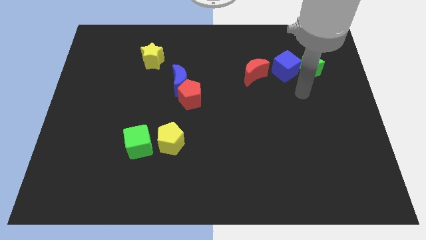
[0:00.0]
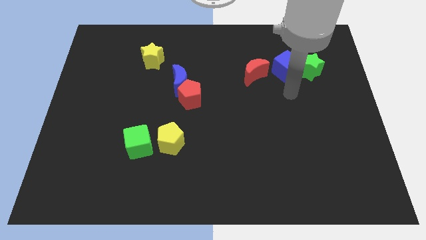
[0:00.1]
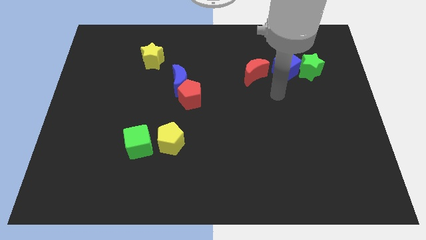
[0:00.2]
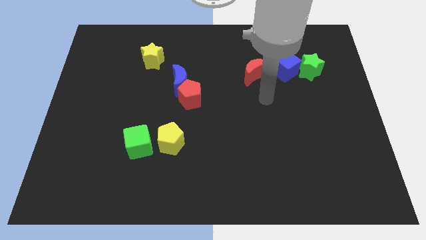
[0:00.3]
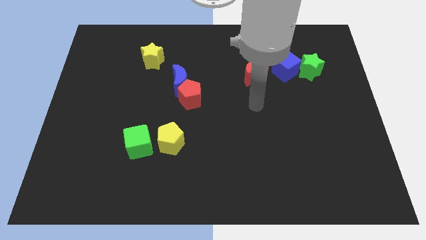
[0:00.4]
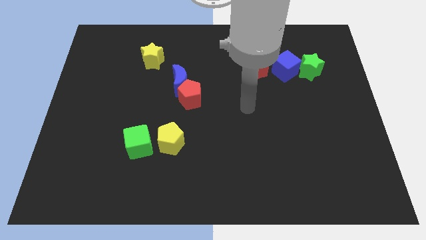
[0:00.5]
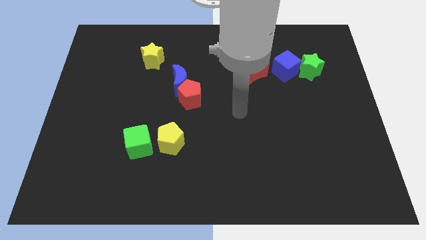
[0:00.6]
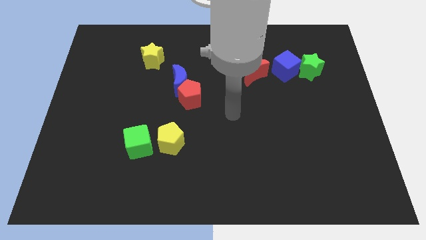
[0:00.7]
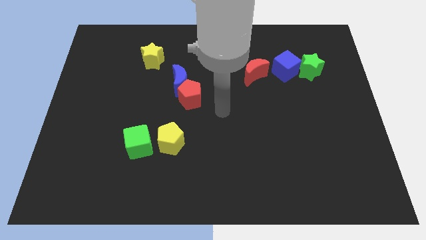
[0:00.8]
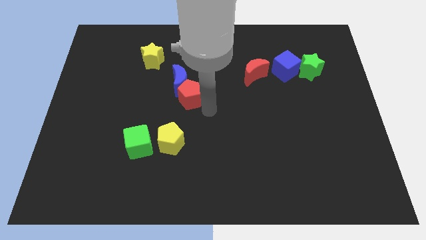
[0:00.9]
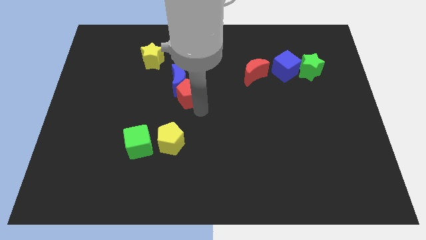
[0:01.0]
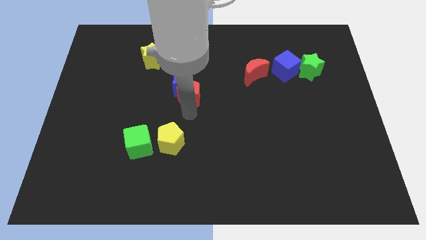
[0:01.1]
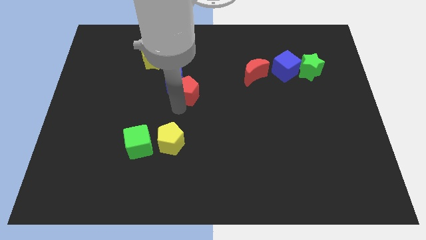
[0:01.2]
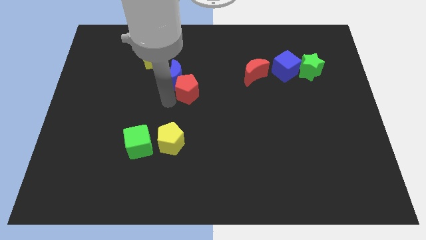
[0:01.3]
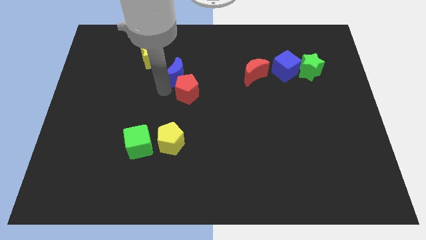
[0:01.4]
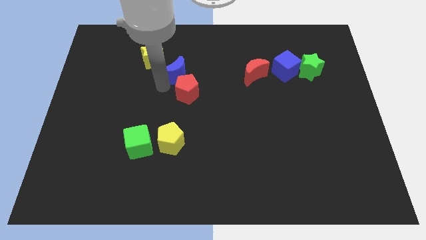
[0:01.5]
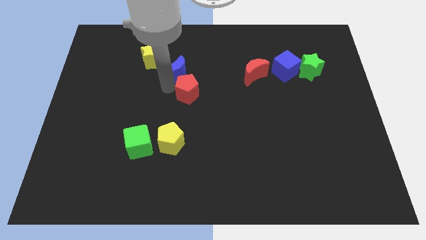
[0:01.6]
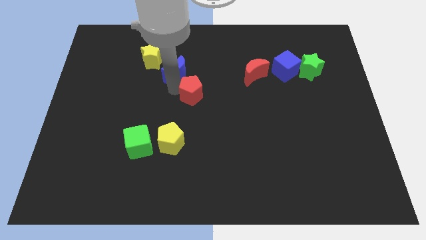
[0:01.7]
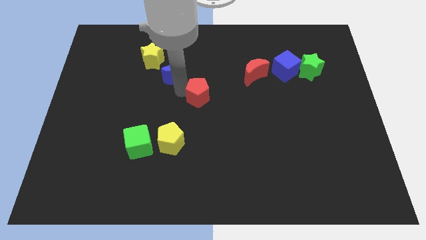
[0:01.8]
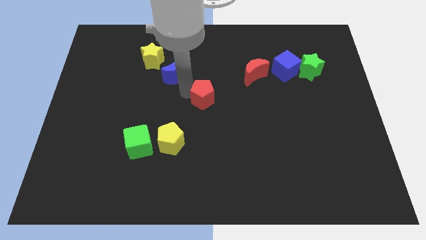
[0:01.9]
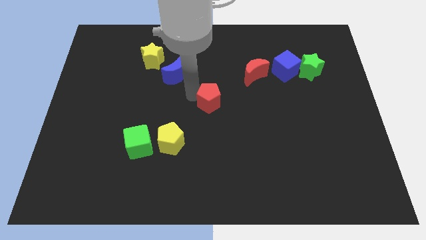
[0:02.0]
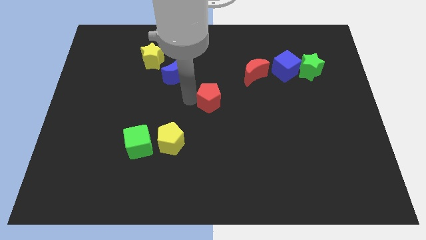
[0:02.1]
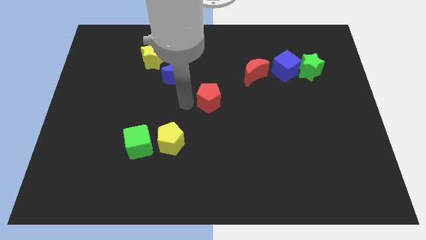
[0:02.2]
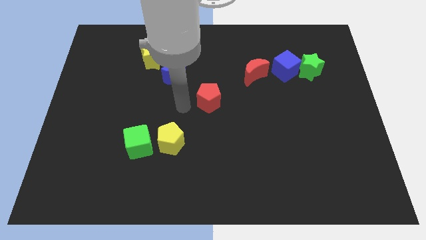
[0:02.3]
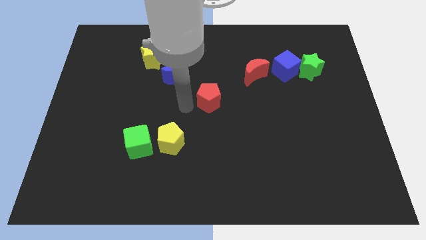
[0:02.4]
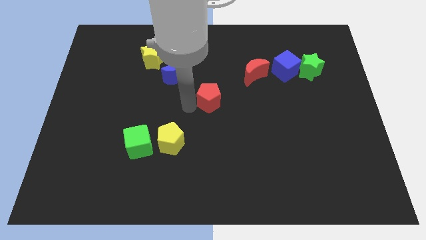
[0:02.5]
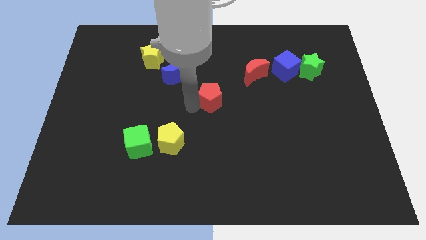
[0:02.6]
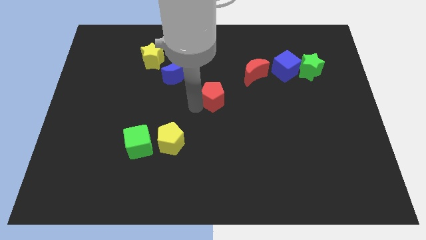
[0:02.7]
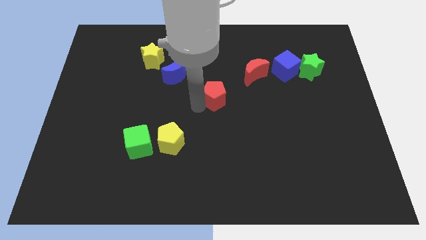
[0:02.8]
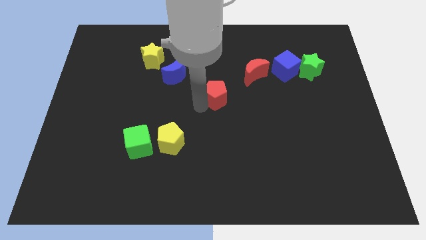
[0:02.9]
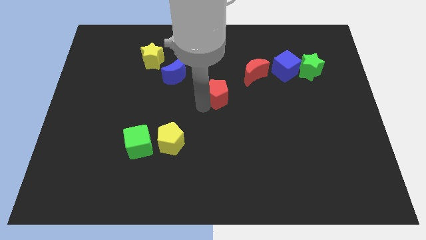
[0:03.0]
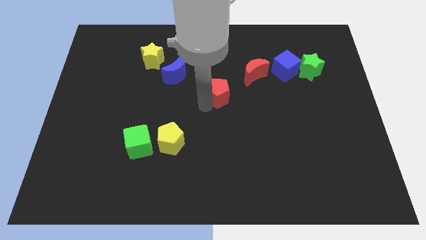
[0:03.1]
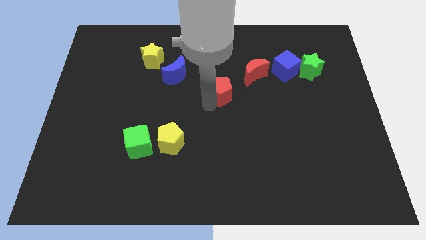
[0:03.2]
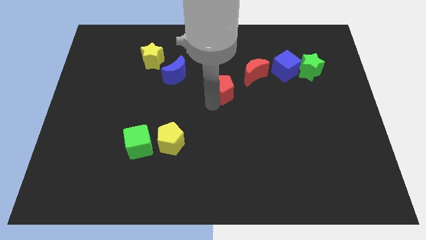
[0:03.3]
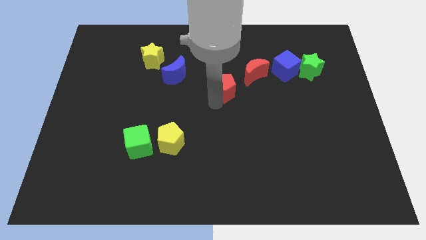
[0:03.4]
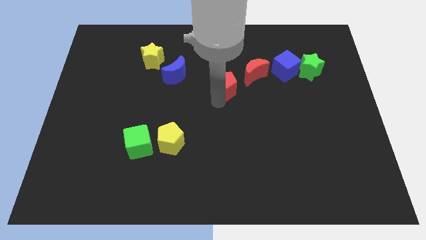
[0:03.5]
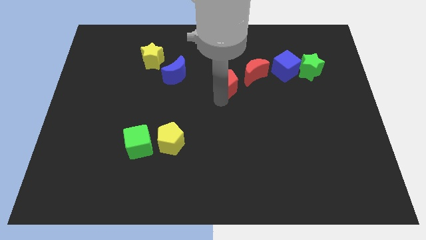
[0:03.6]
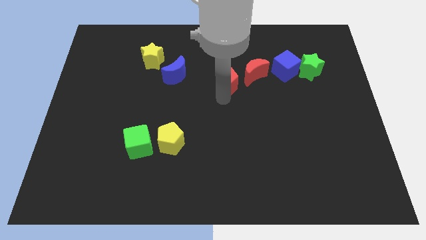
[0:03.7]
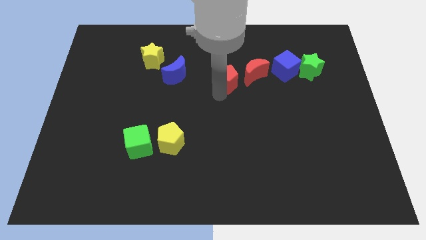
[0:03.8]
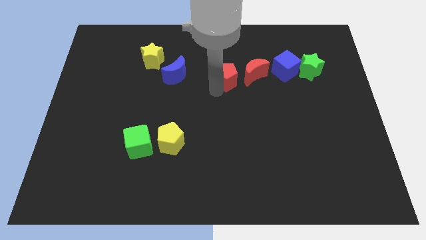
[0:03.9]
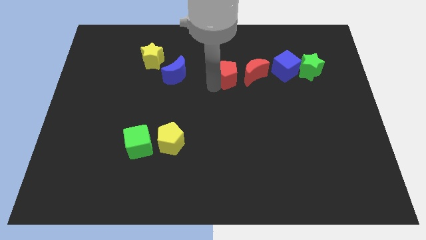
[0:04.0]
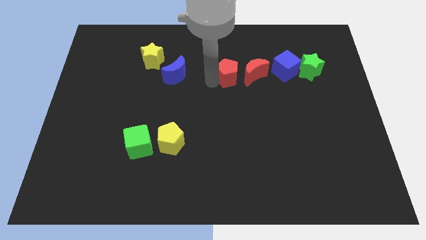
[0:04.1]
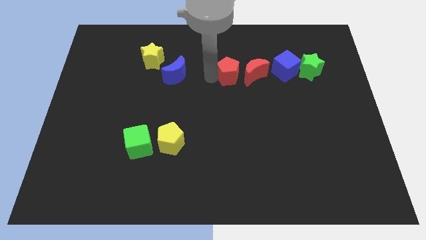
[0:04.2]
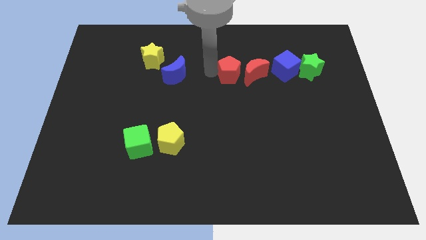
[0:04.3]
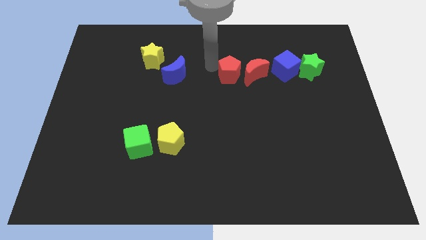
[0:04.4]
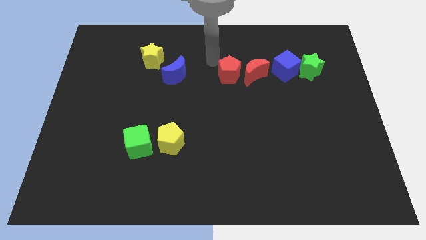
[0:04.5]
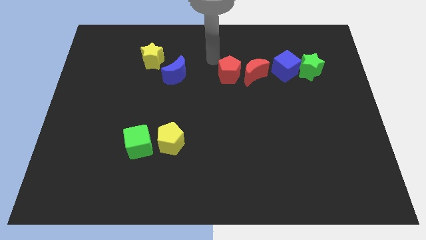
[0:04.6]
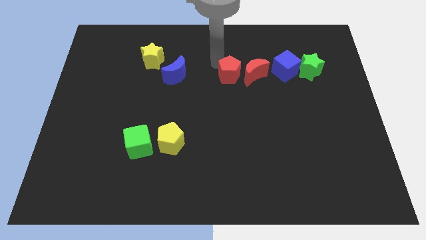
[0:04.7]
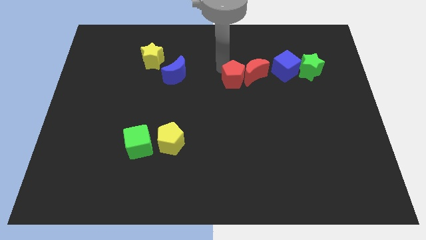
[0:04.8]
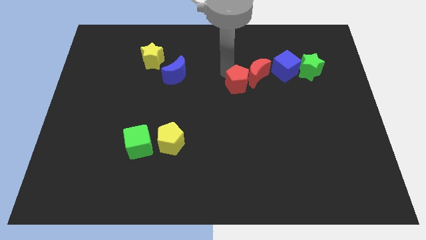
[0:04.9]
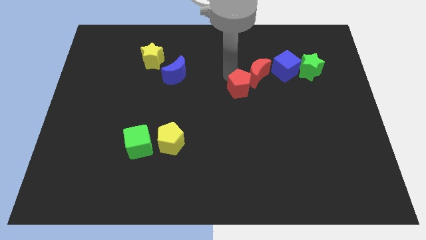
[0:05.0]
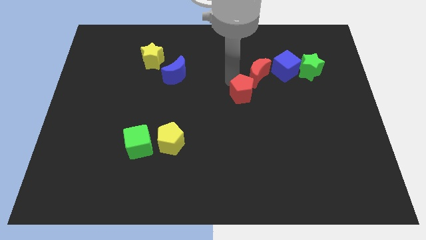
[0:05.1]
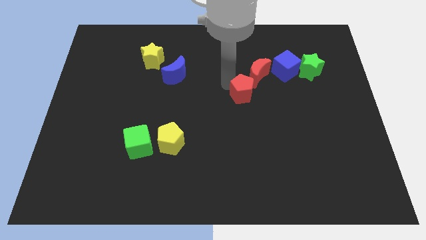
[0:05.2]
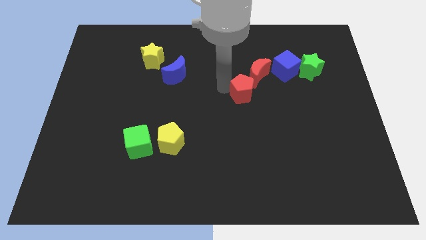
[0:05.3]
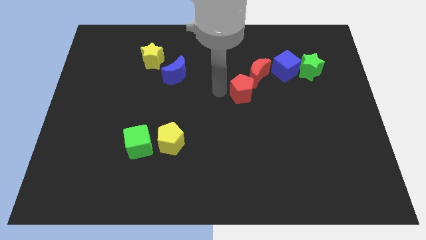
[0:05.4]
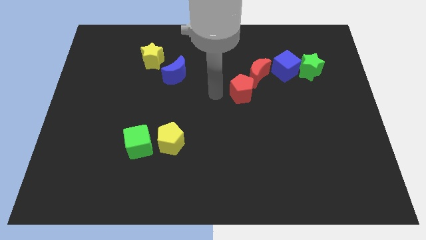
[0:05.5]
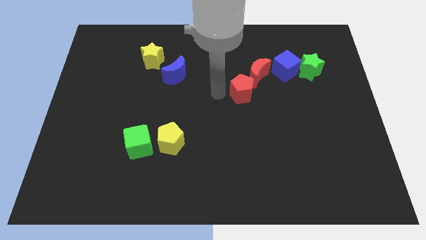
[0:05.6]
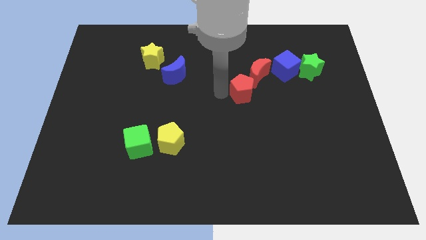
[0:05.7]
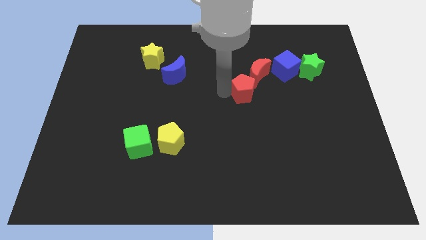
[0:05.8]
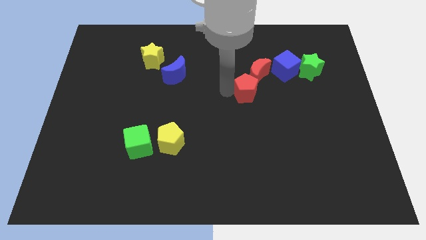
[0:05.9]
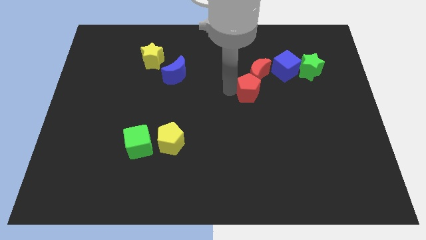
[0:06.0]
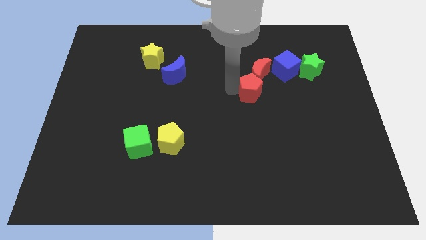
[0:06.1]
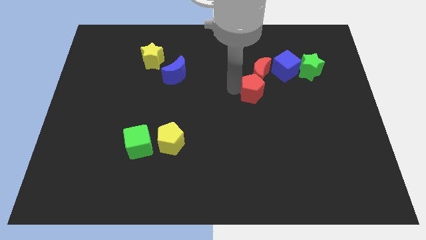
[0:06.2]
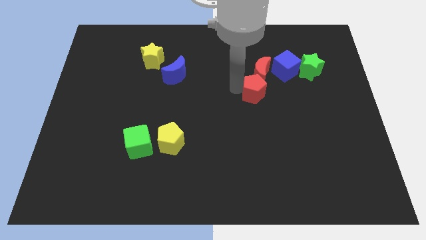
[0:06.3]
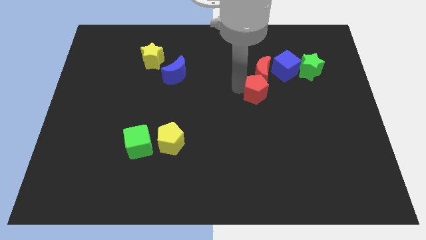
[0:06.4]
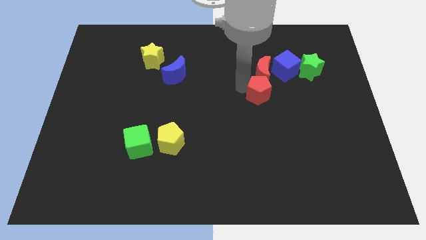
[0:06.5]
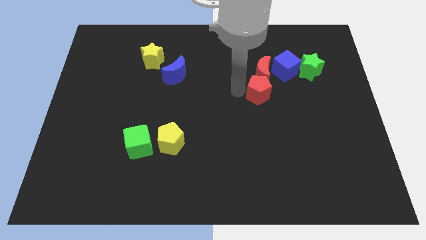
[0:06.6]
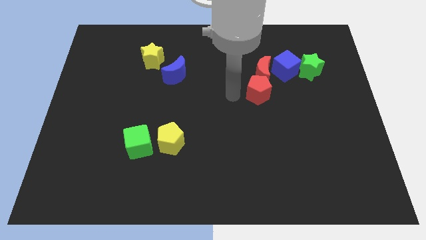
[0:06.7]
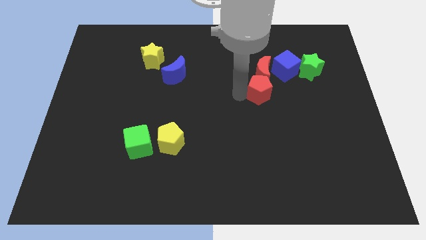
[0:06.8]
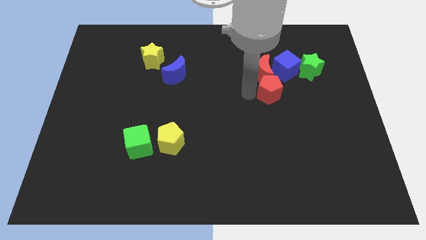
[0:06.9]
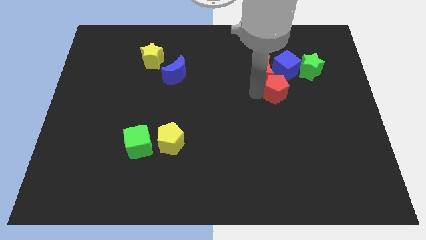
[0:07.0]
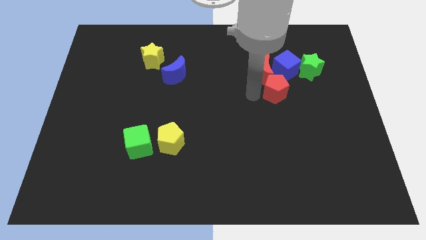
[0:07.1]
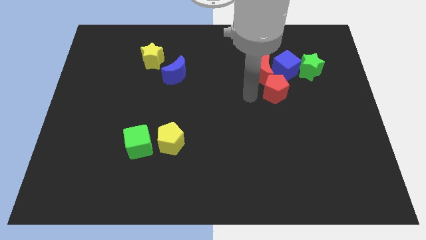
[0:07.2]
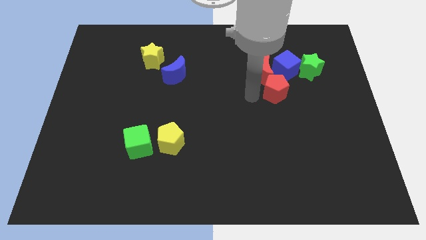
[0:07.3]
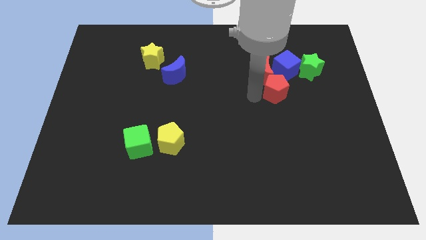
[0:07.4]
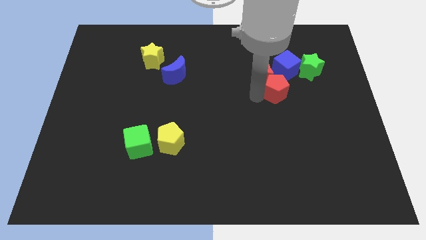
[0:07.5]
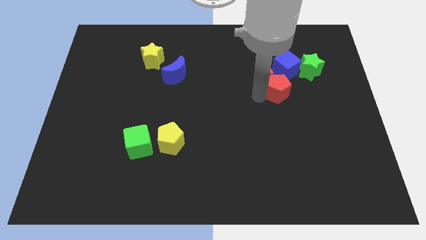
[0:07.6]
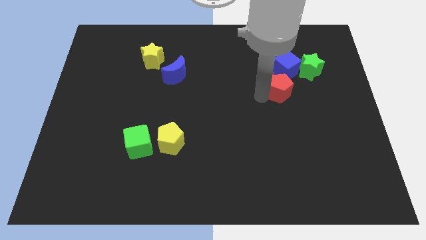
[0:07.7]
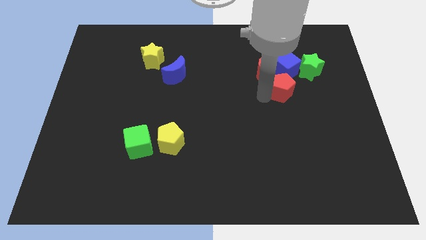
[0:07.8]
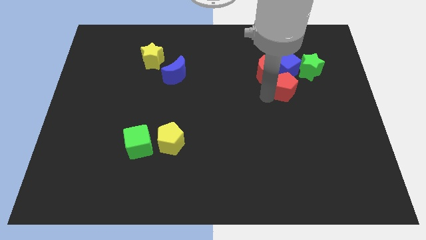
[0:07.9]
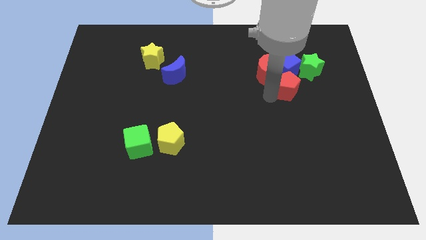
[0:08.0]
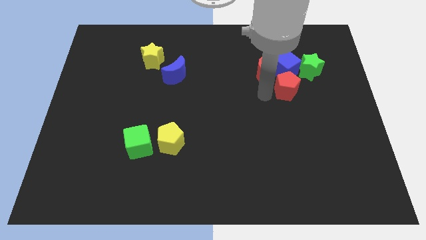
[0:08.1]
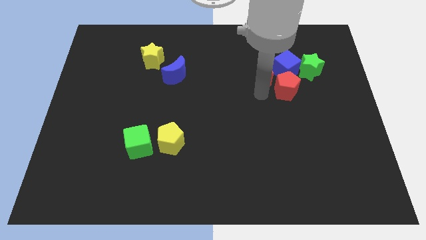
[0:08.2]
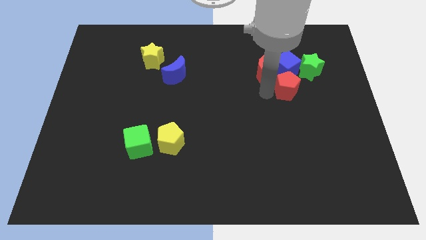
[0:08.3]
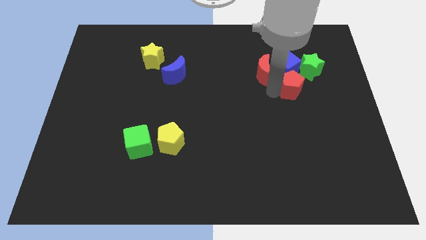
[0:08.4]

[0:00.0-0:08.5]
slide the red pentagon to the bottom right side of the blue cube
